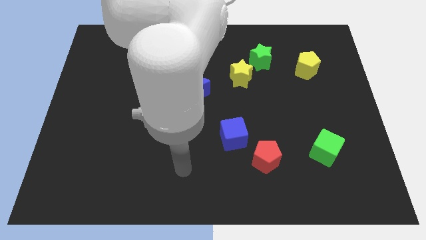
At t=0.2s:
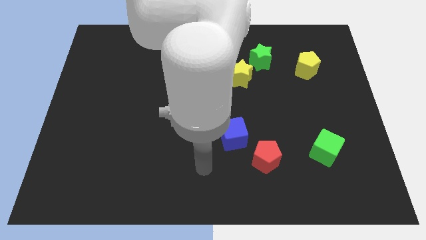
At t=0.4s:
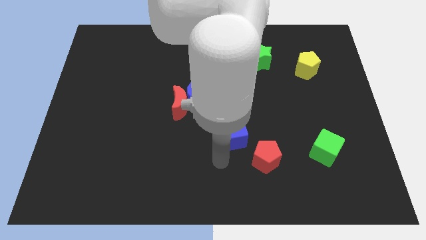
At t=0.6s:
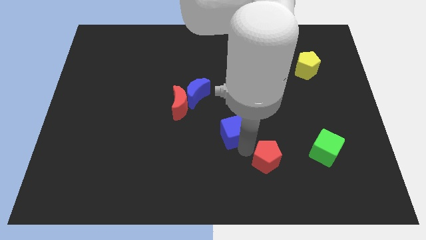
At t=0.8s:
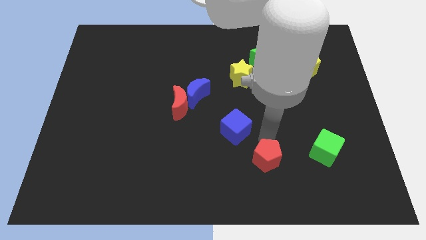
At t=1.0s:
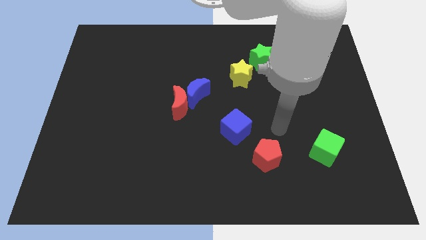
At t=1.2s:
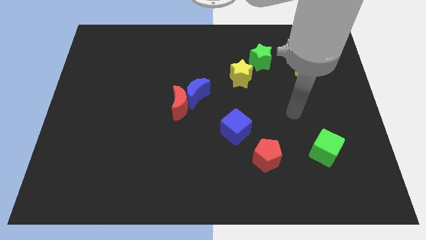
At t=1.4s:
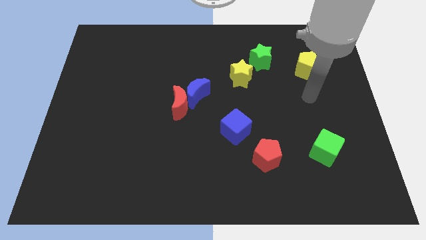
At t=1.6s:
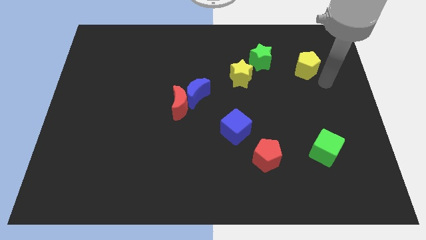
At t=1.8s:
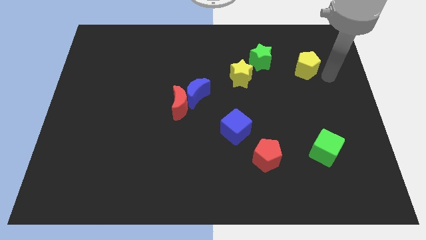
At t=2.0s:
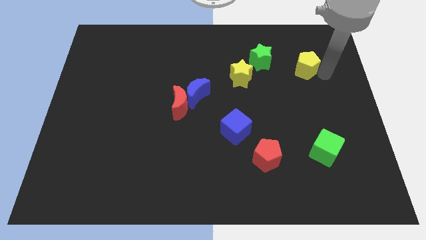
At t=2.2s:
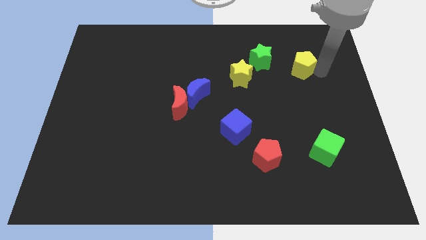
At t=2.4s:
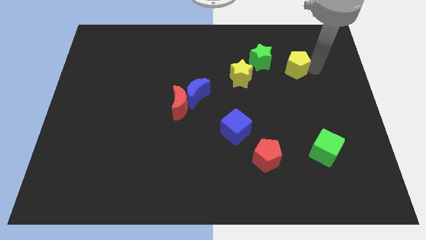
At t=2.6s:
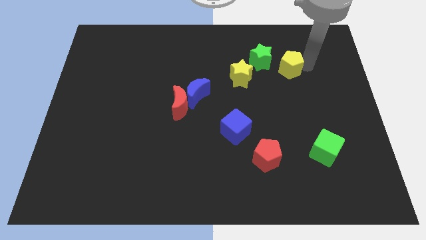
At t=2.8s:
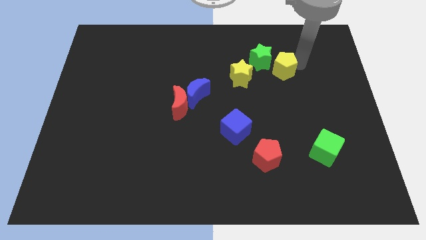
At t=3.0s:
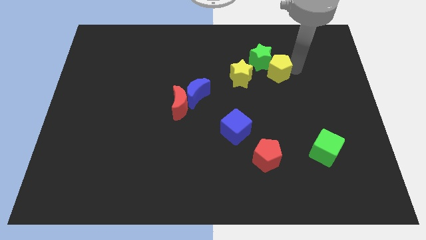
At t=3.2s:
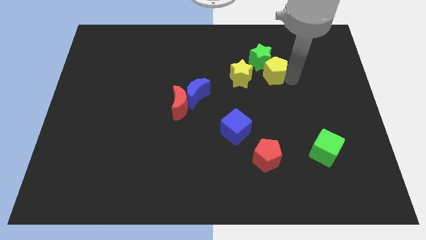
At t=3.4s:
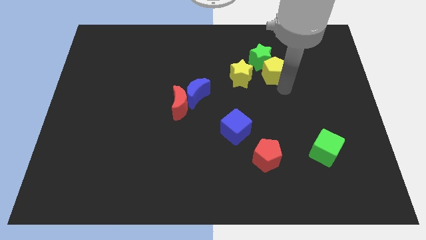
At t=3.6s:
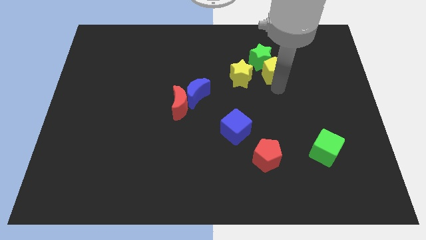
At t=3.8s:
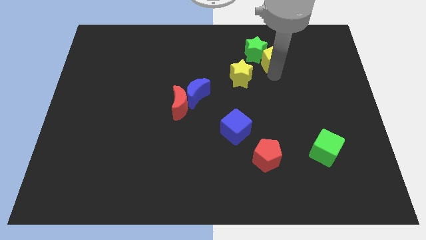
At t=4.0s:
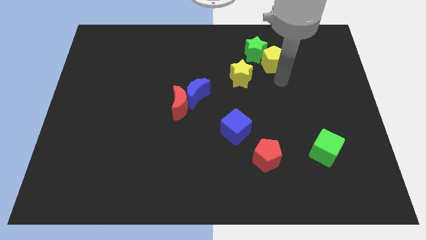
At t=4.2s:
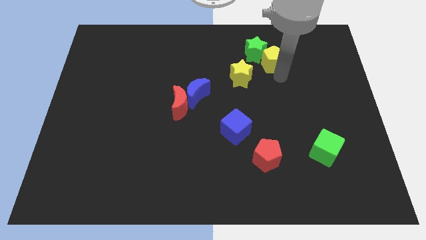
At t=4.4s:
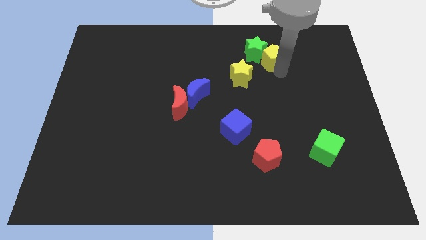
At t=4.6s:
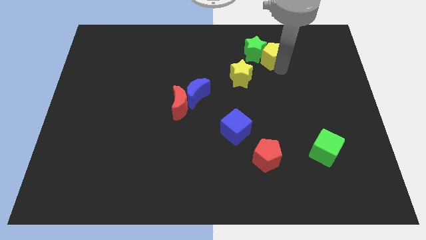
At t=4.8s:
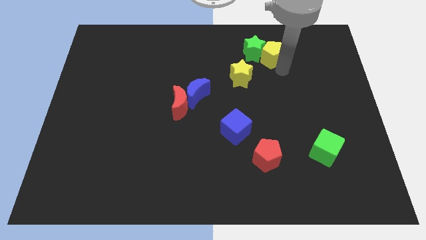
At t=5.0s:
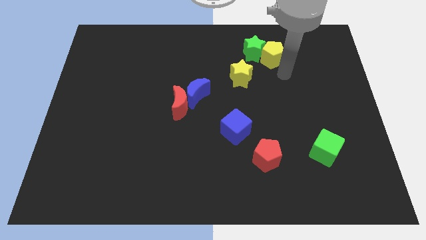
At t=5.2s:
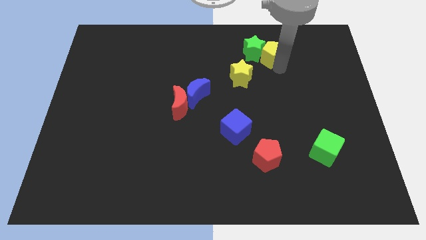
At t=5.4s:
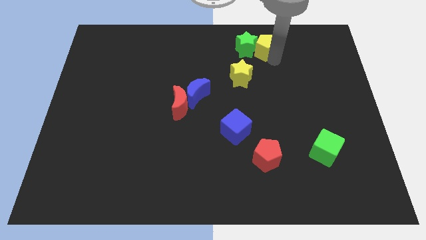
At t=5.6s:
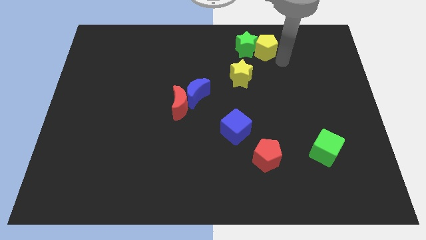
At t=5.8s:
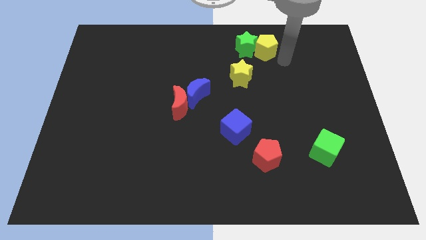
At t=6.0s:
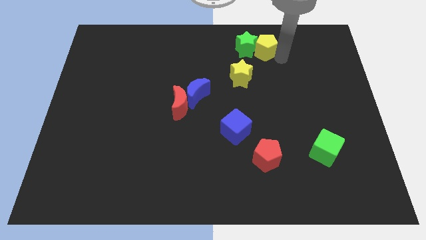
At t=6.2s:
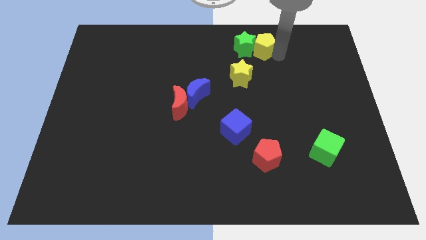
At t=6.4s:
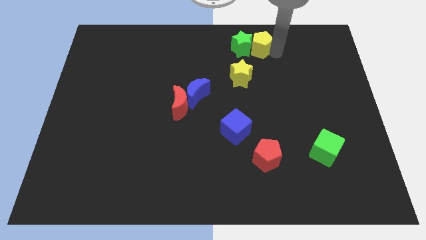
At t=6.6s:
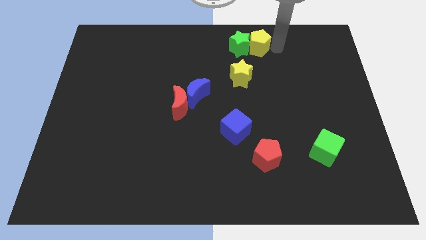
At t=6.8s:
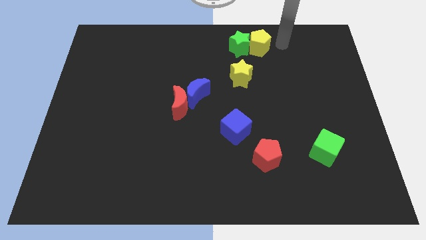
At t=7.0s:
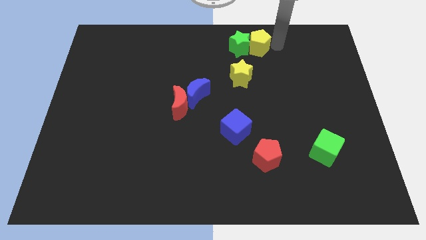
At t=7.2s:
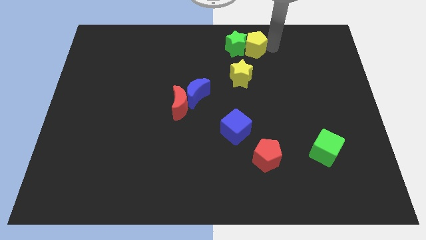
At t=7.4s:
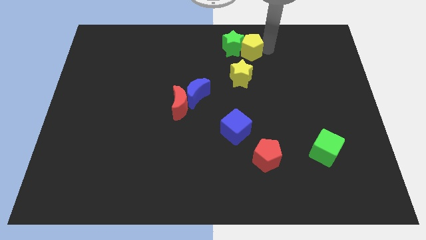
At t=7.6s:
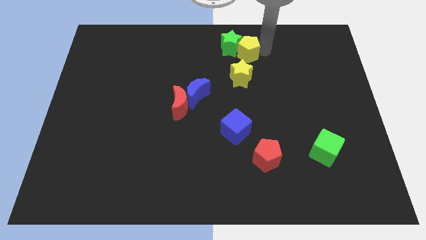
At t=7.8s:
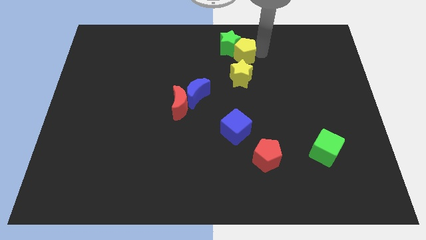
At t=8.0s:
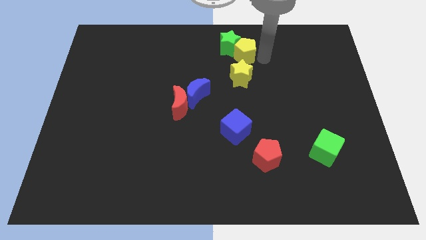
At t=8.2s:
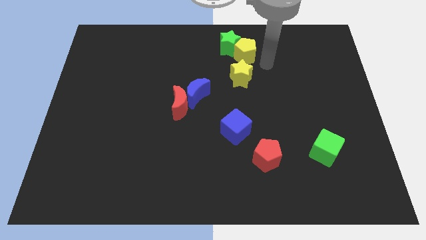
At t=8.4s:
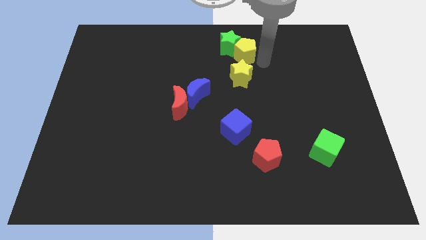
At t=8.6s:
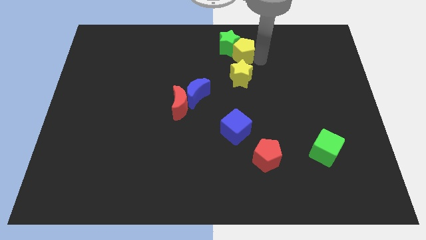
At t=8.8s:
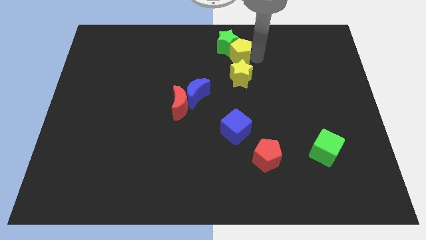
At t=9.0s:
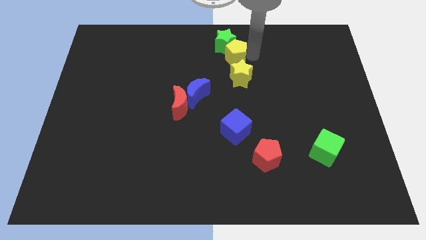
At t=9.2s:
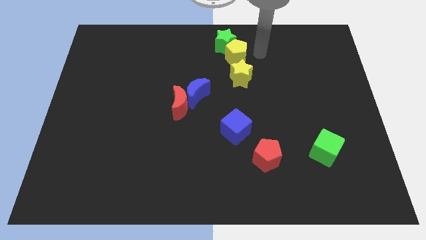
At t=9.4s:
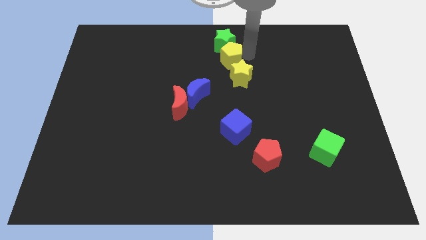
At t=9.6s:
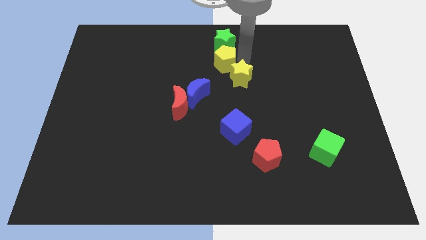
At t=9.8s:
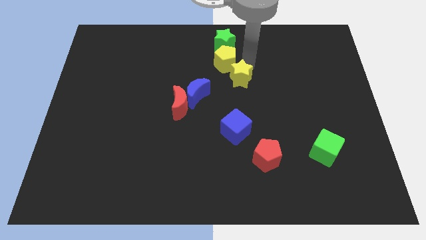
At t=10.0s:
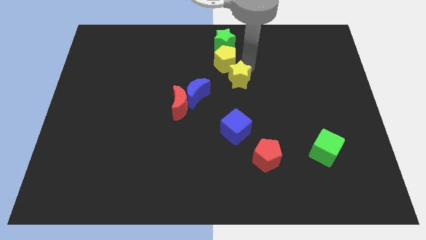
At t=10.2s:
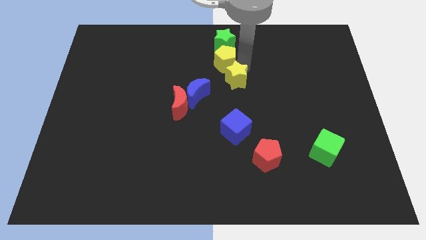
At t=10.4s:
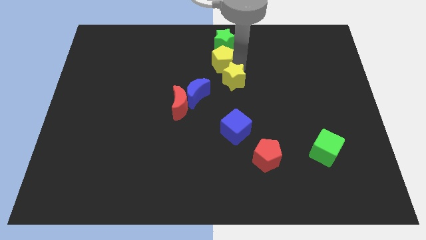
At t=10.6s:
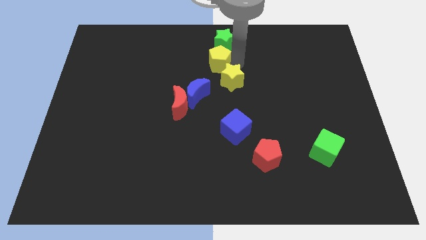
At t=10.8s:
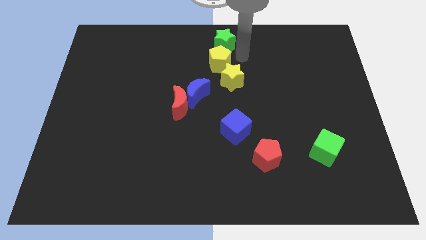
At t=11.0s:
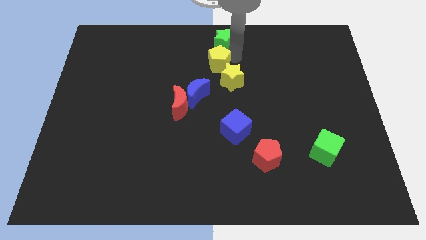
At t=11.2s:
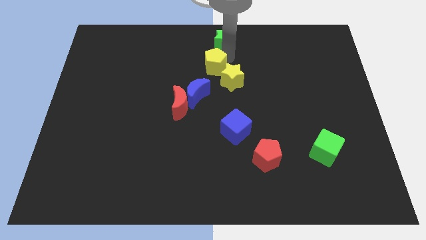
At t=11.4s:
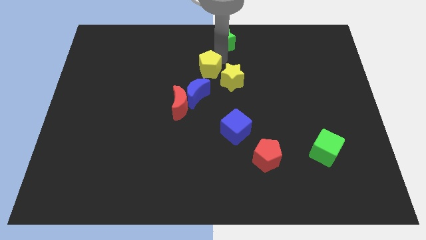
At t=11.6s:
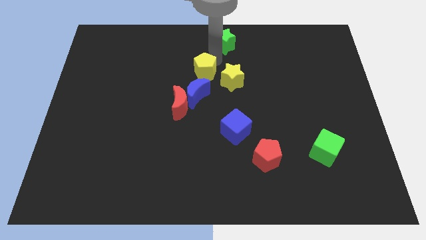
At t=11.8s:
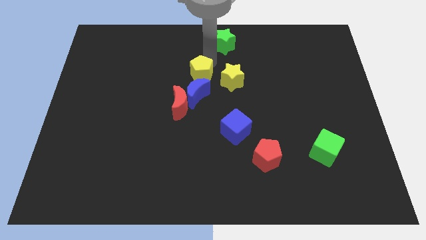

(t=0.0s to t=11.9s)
push the yellow pentagon to the top side of the red moon

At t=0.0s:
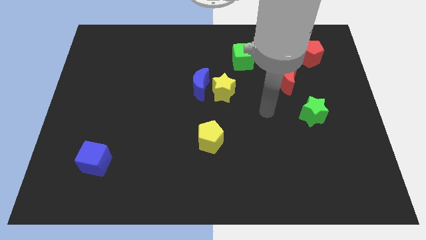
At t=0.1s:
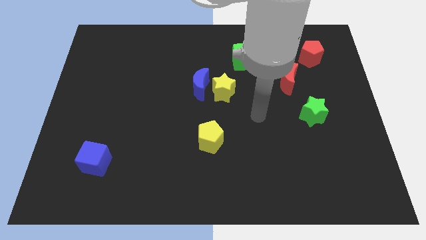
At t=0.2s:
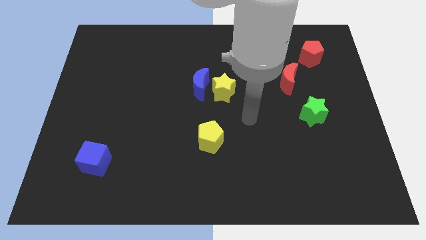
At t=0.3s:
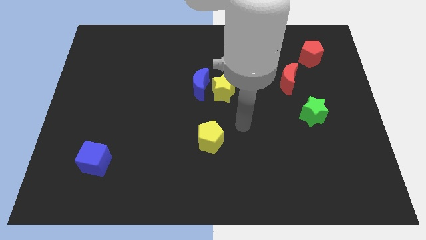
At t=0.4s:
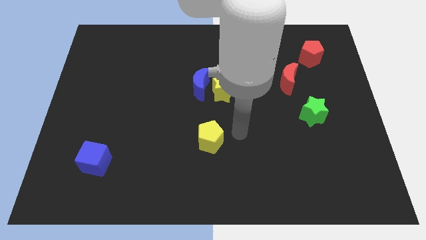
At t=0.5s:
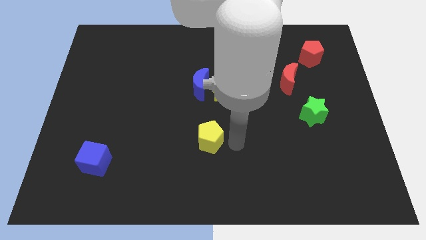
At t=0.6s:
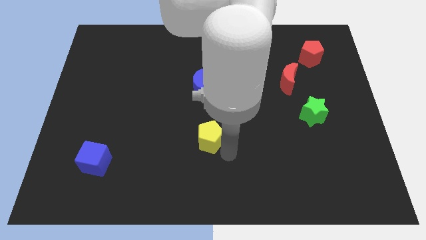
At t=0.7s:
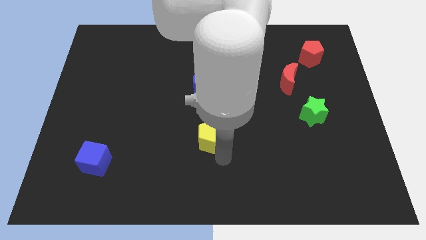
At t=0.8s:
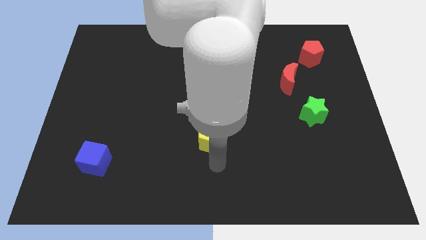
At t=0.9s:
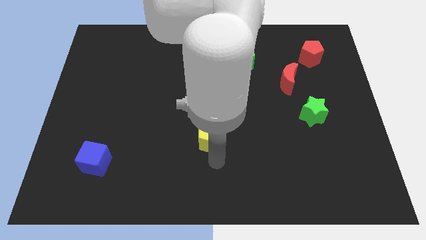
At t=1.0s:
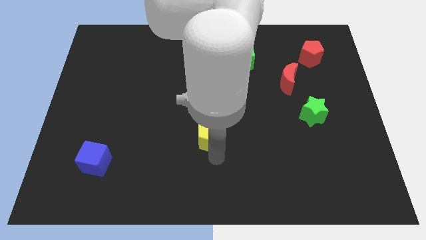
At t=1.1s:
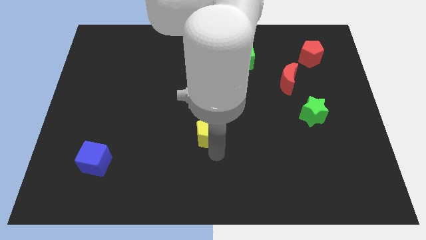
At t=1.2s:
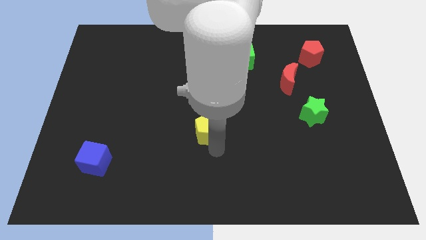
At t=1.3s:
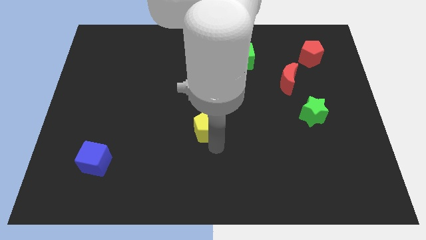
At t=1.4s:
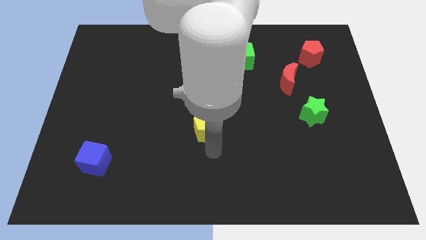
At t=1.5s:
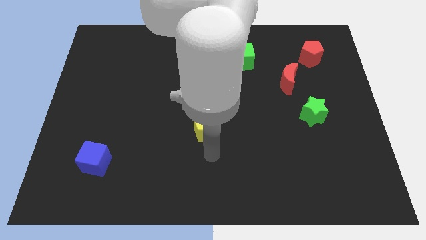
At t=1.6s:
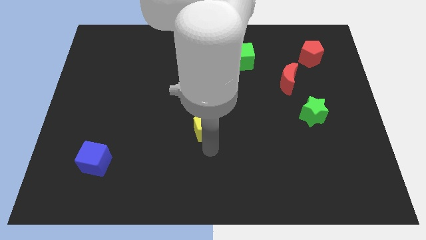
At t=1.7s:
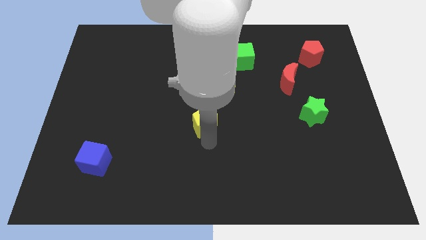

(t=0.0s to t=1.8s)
slide the yellow pentagon to the bottom left of the yellow star
